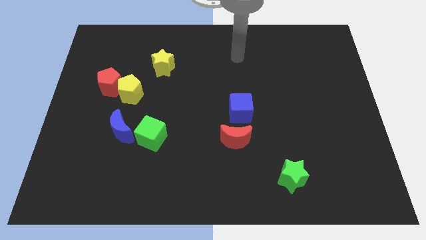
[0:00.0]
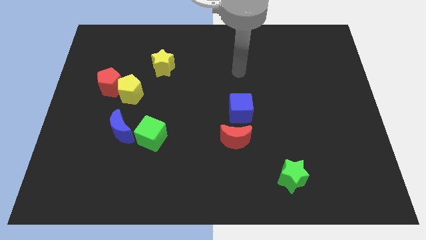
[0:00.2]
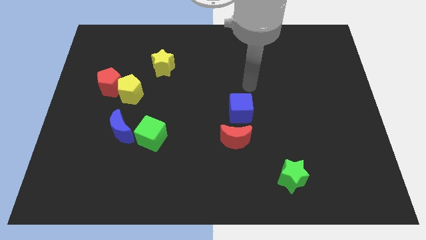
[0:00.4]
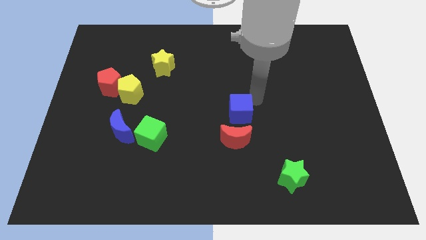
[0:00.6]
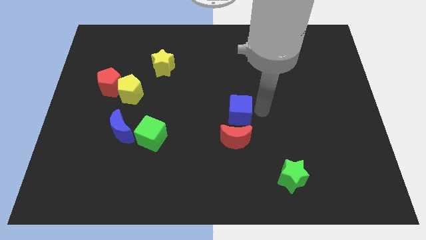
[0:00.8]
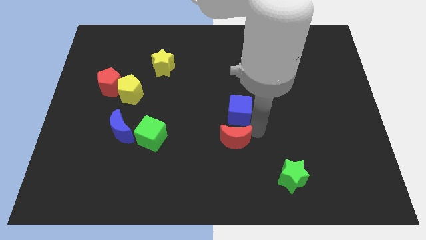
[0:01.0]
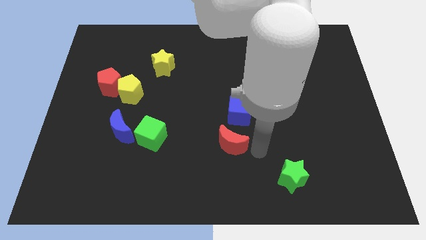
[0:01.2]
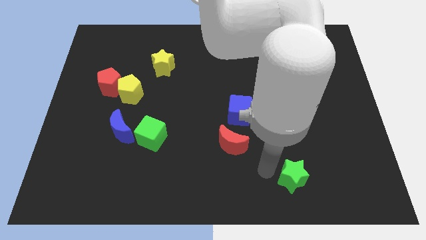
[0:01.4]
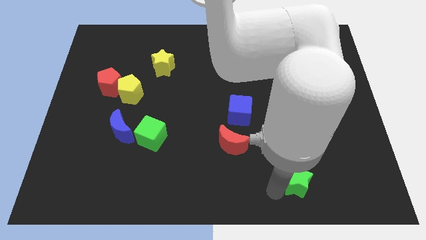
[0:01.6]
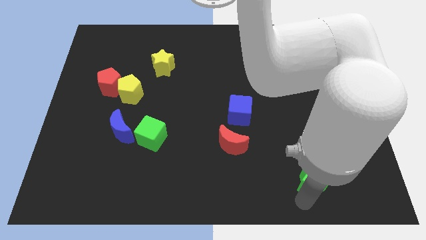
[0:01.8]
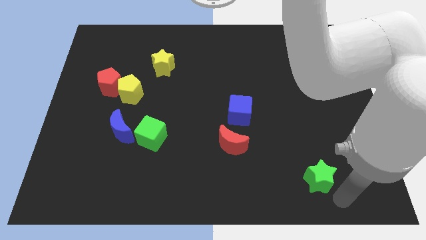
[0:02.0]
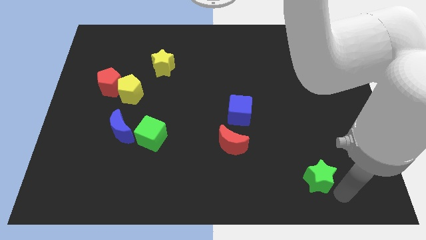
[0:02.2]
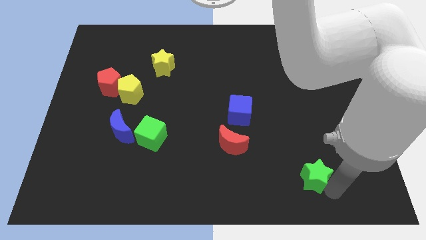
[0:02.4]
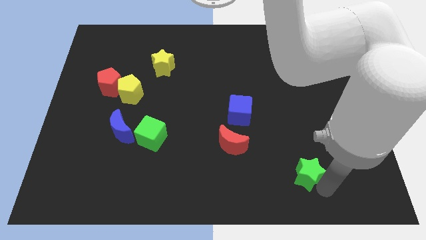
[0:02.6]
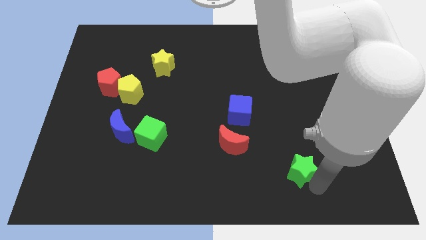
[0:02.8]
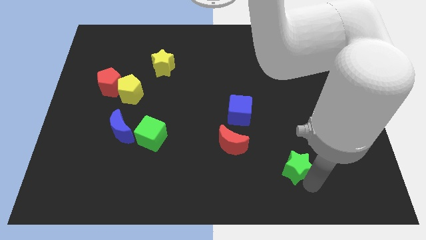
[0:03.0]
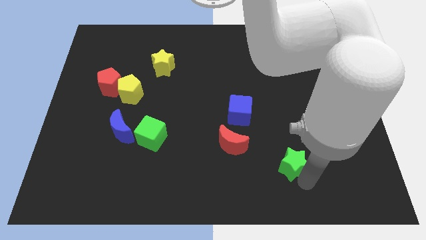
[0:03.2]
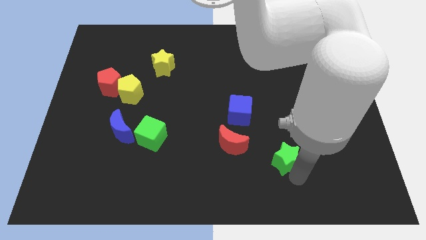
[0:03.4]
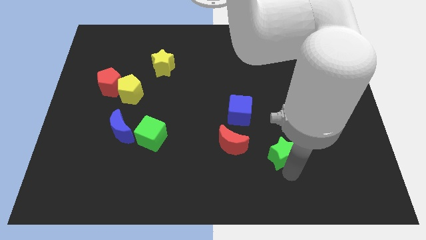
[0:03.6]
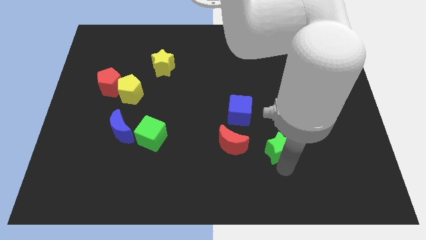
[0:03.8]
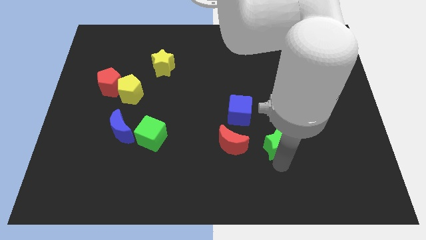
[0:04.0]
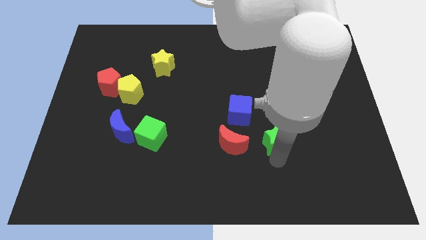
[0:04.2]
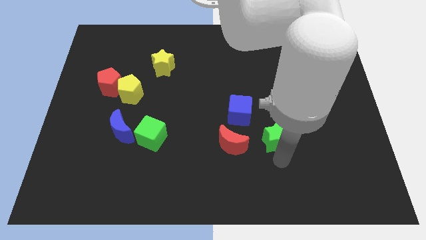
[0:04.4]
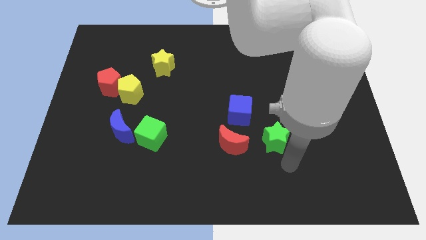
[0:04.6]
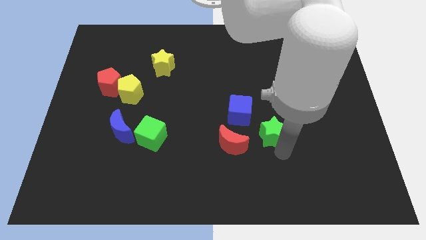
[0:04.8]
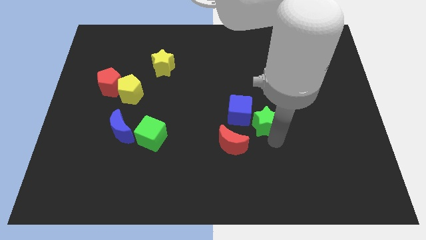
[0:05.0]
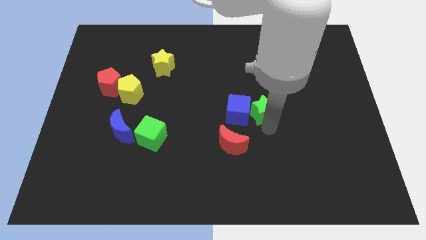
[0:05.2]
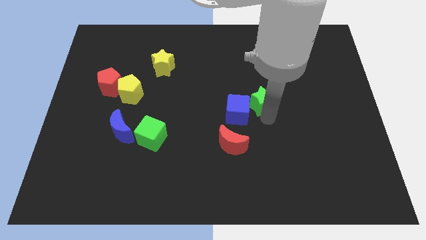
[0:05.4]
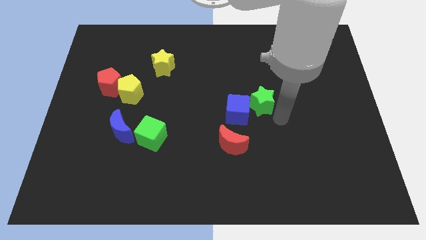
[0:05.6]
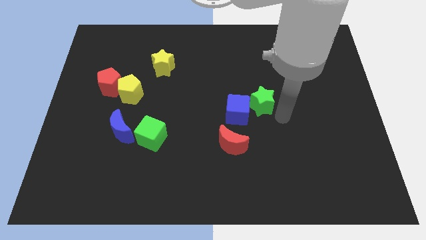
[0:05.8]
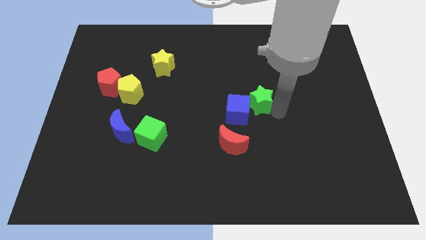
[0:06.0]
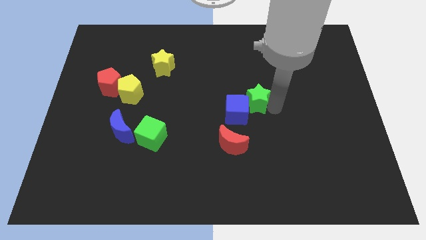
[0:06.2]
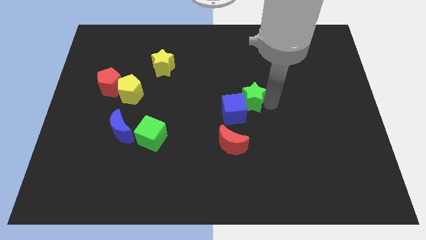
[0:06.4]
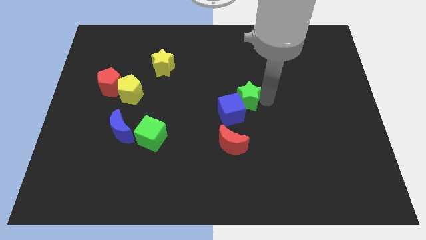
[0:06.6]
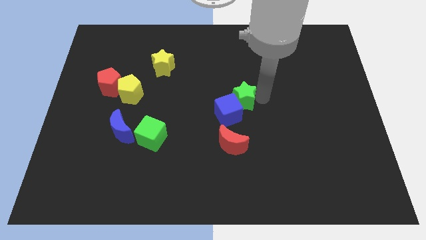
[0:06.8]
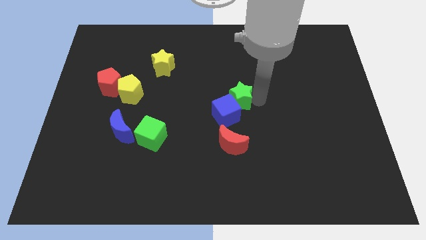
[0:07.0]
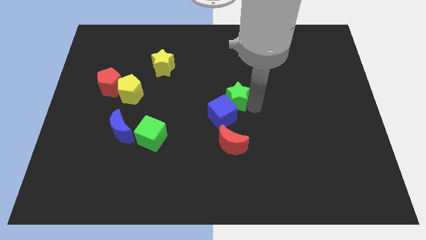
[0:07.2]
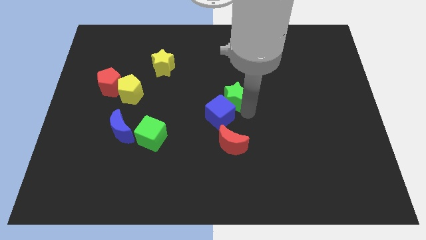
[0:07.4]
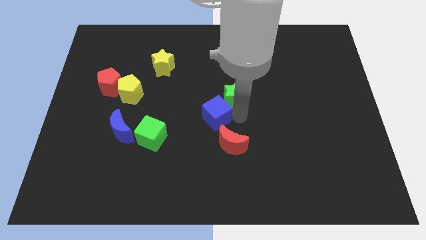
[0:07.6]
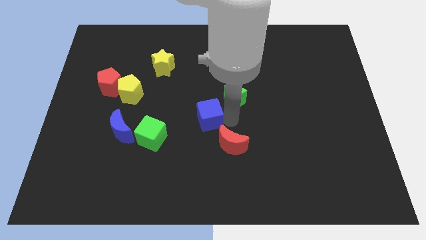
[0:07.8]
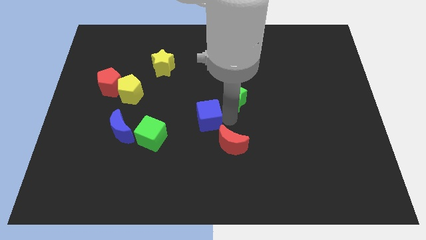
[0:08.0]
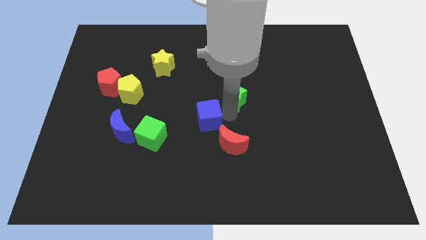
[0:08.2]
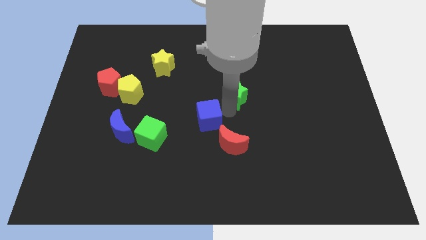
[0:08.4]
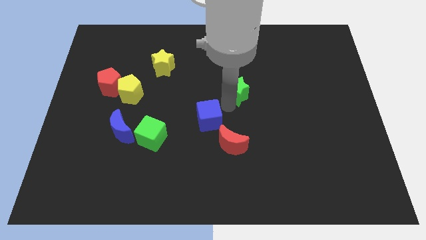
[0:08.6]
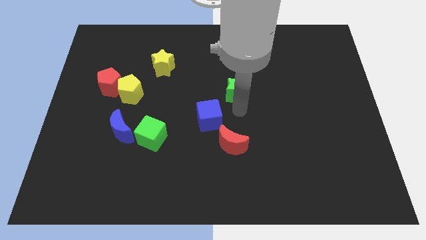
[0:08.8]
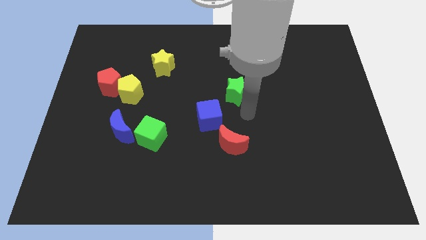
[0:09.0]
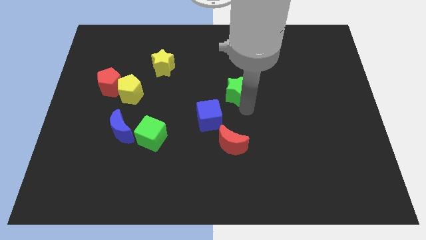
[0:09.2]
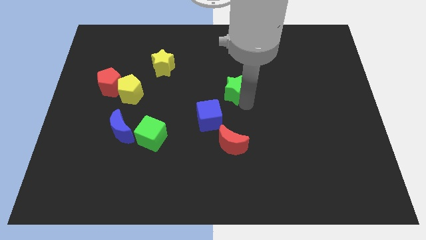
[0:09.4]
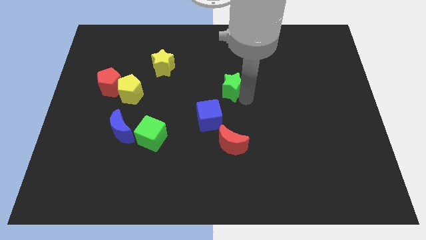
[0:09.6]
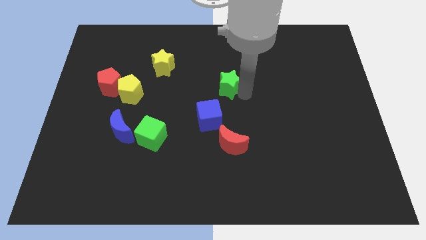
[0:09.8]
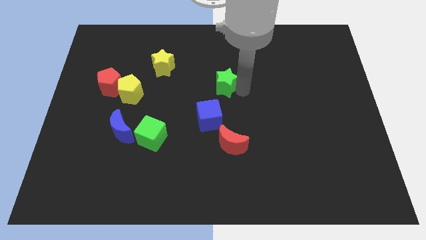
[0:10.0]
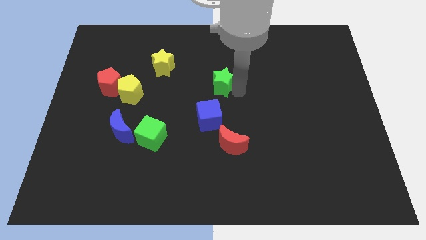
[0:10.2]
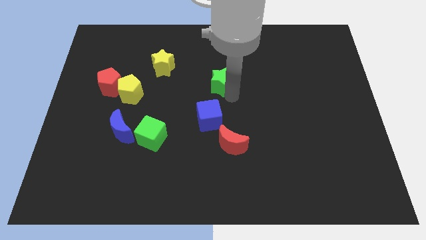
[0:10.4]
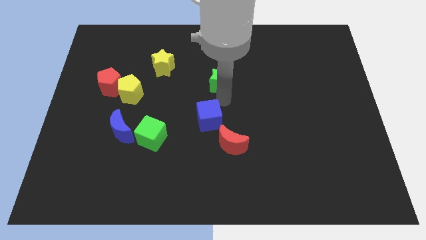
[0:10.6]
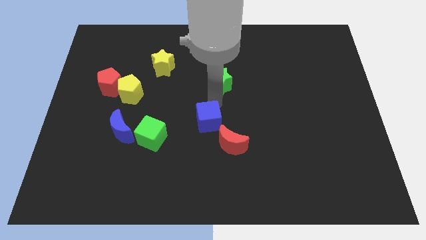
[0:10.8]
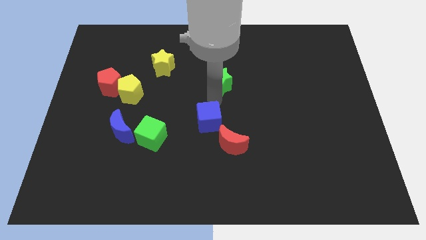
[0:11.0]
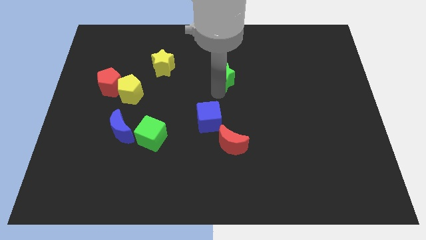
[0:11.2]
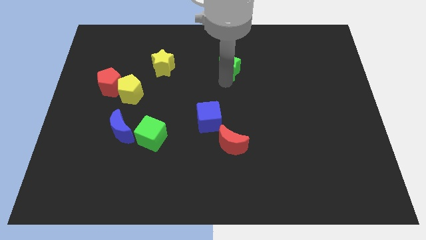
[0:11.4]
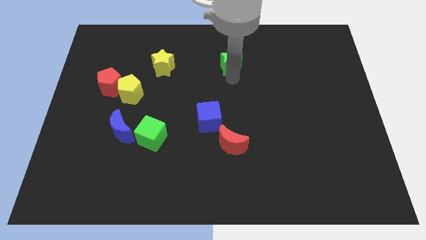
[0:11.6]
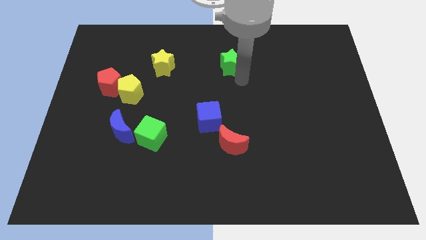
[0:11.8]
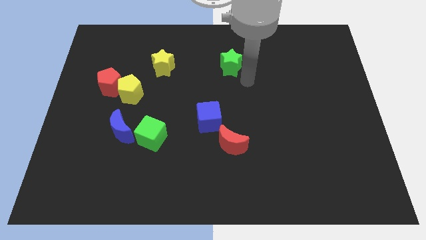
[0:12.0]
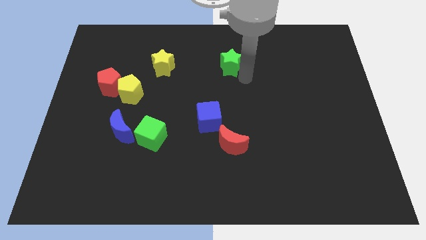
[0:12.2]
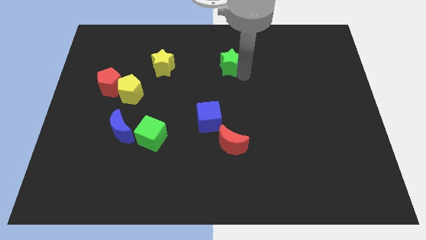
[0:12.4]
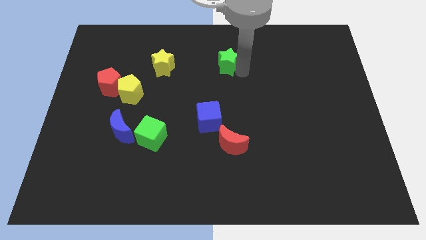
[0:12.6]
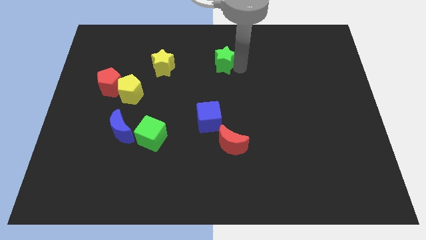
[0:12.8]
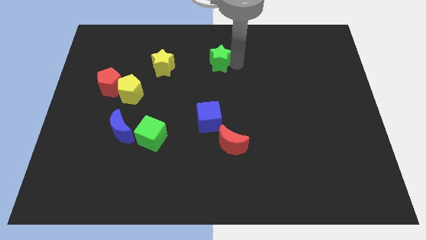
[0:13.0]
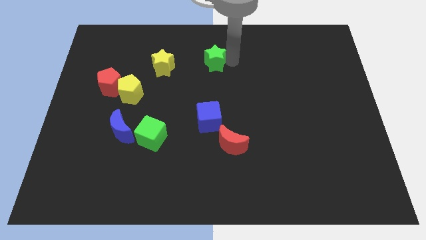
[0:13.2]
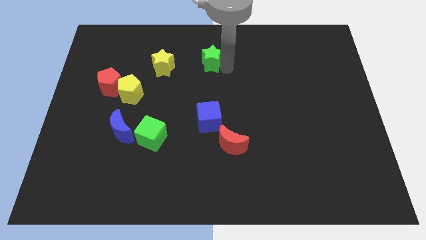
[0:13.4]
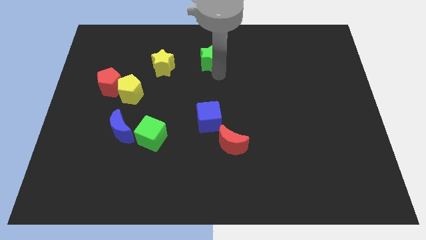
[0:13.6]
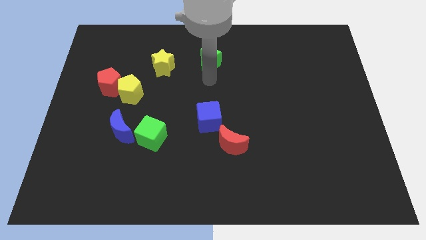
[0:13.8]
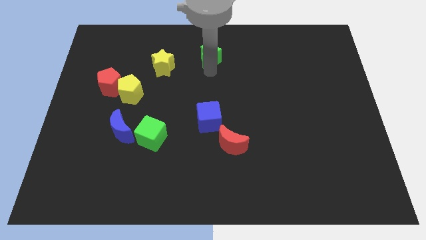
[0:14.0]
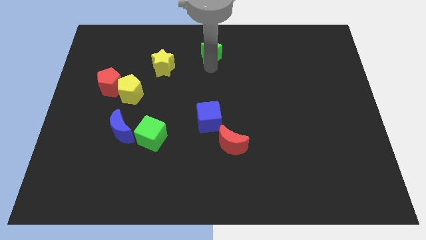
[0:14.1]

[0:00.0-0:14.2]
slide the green star to the towards your base
